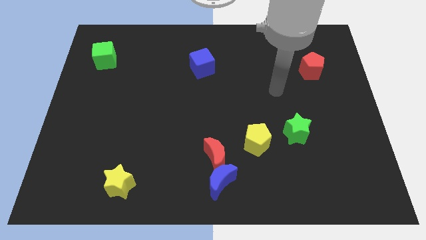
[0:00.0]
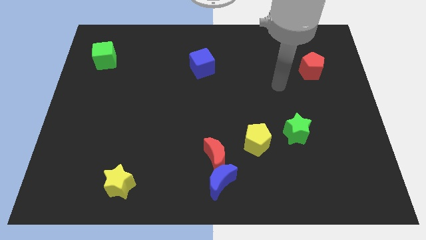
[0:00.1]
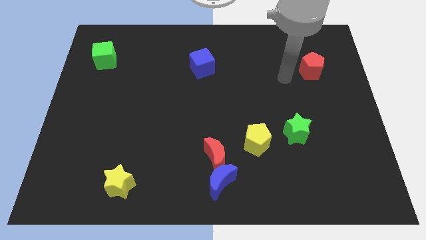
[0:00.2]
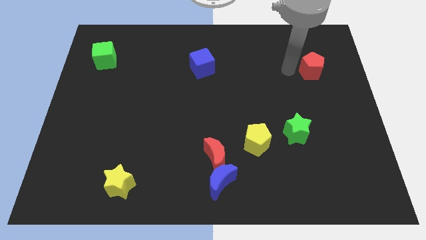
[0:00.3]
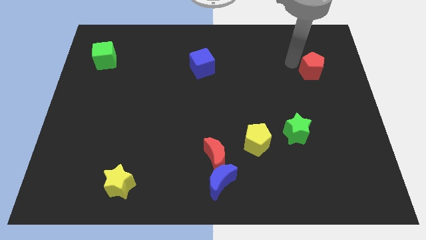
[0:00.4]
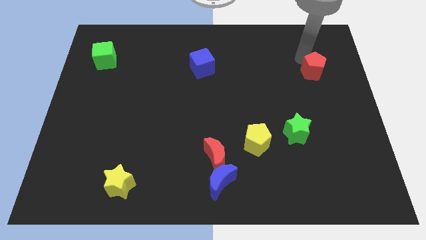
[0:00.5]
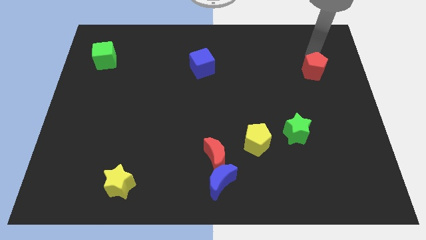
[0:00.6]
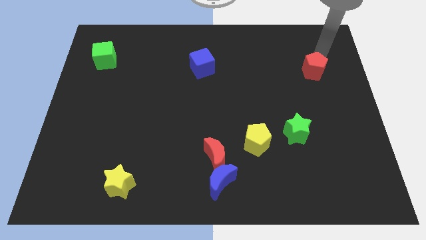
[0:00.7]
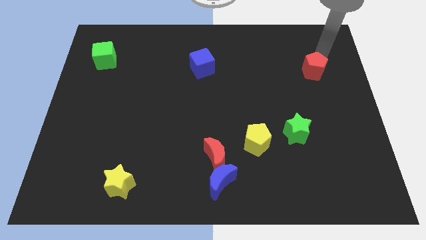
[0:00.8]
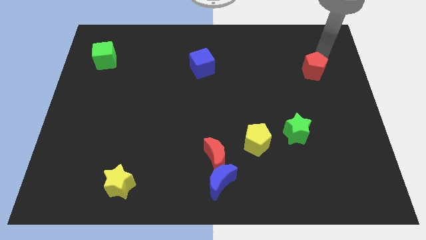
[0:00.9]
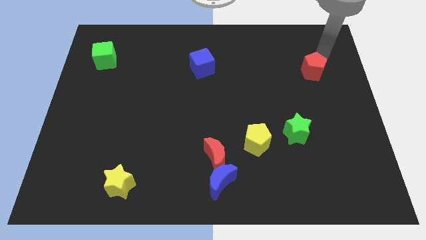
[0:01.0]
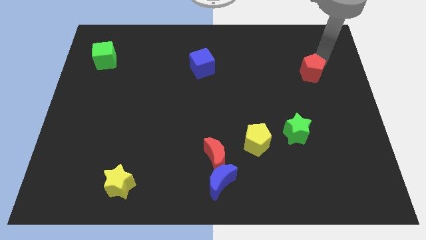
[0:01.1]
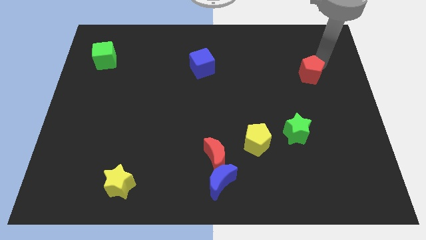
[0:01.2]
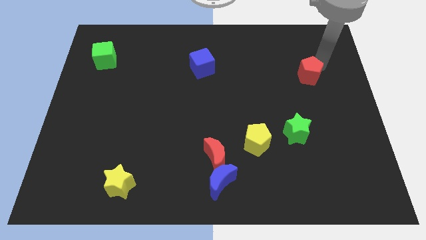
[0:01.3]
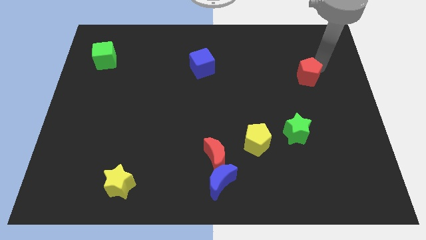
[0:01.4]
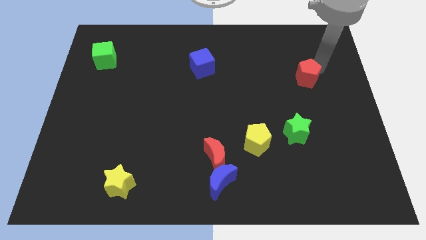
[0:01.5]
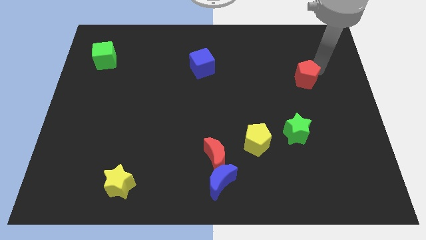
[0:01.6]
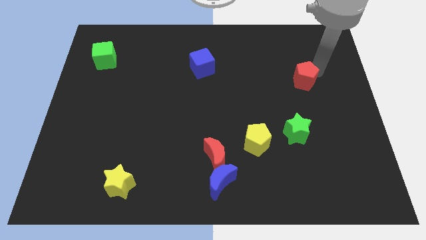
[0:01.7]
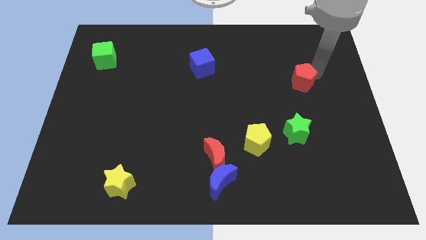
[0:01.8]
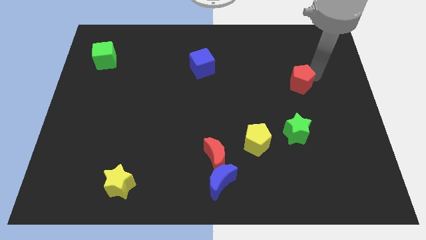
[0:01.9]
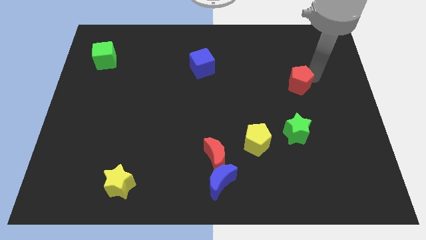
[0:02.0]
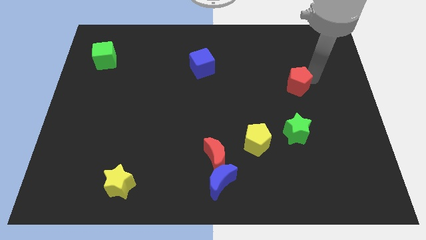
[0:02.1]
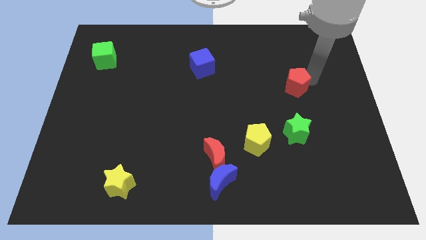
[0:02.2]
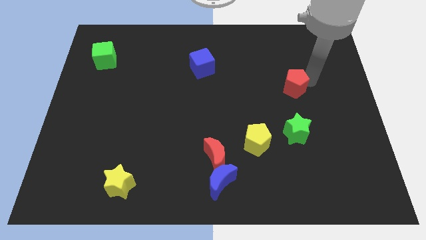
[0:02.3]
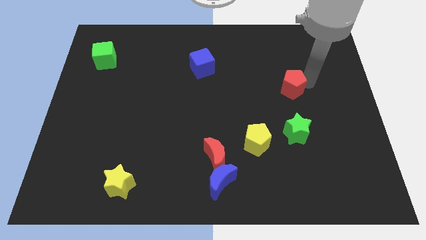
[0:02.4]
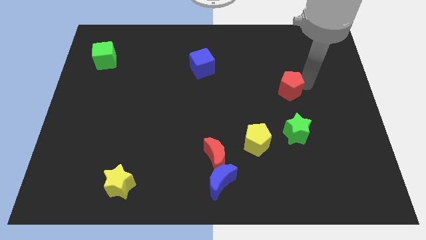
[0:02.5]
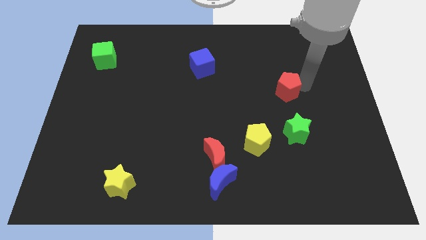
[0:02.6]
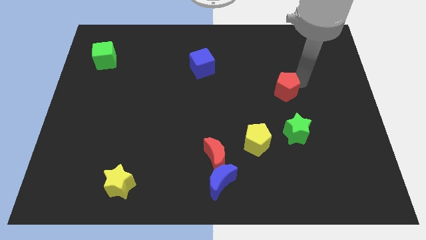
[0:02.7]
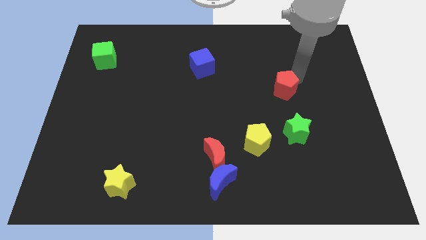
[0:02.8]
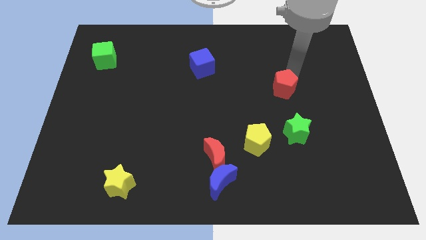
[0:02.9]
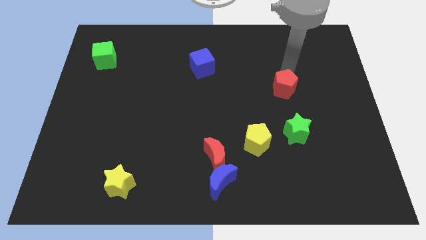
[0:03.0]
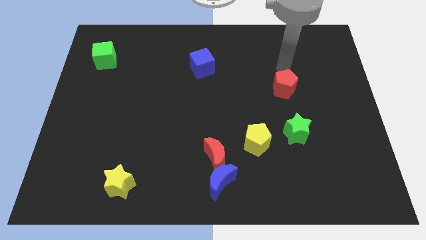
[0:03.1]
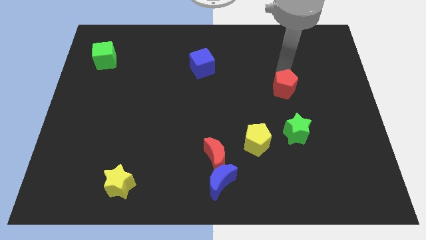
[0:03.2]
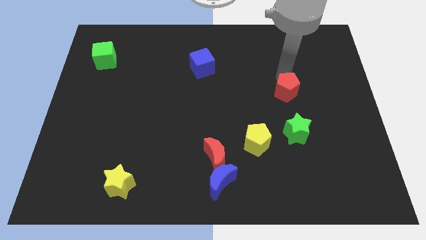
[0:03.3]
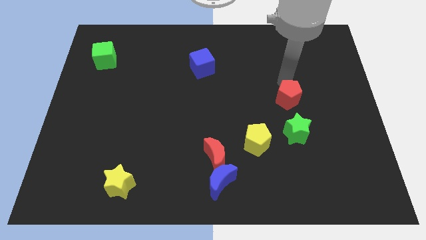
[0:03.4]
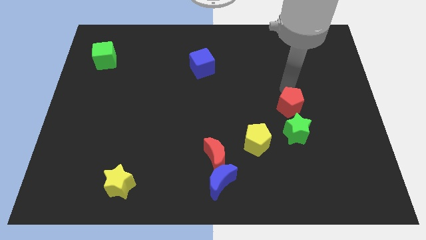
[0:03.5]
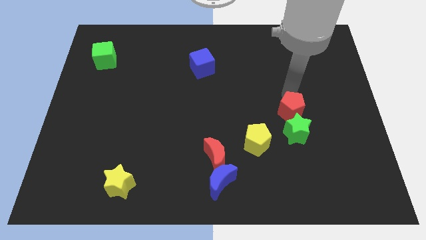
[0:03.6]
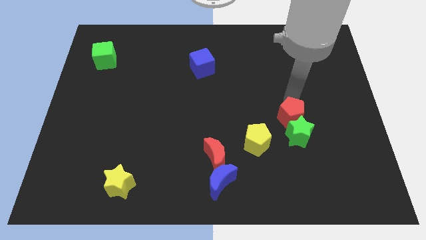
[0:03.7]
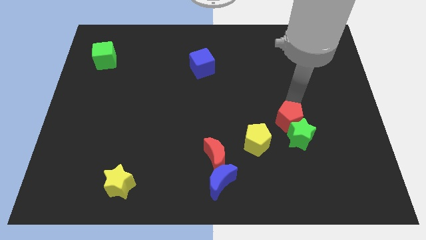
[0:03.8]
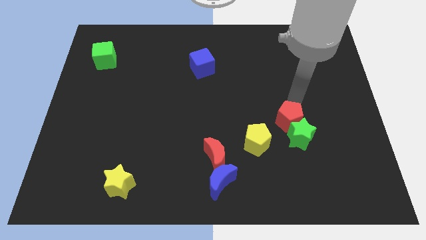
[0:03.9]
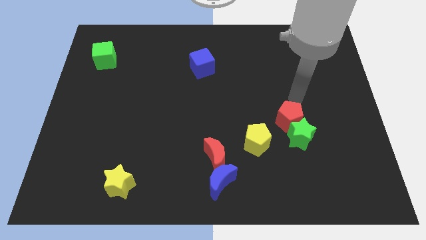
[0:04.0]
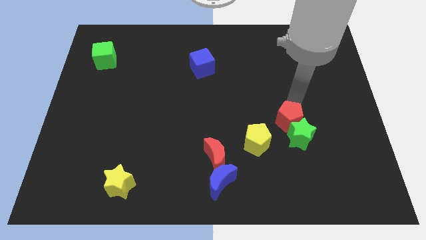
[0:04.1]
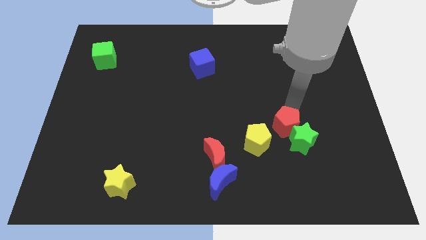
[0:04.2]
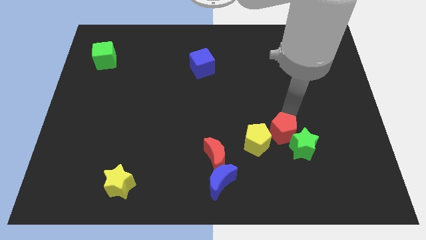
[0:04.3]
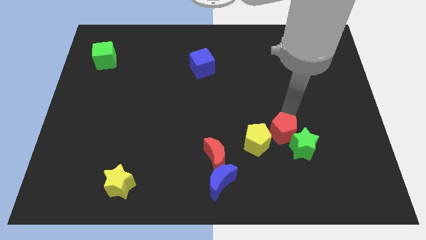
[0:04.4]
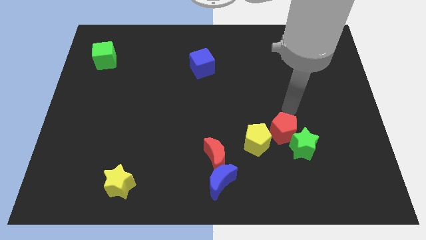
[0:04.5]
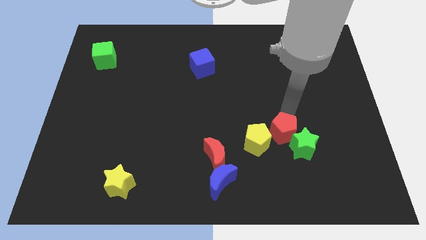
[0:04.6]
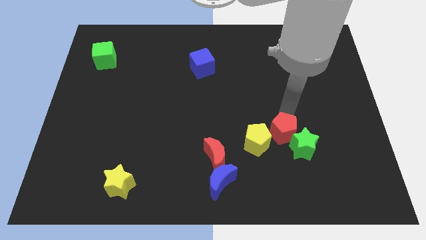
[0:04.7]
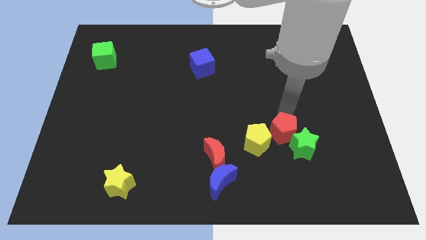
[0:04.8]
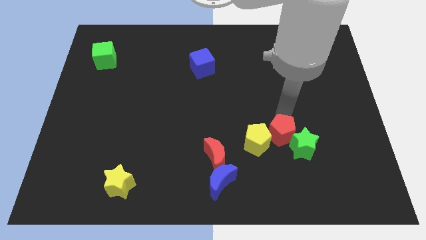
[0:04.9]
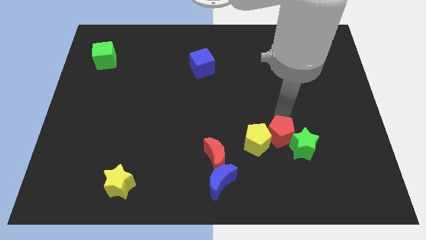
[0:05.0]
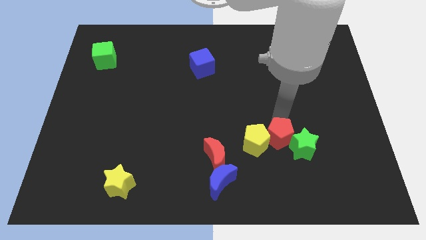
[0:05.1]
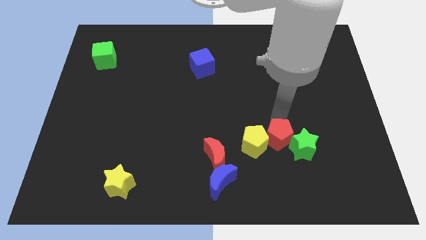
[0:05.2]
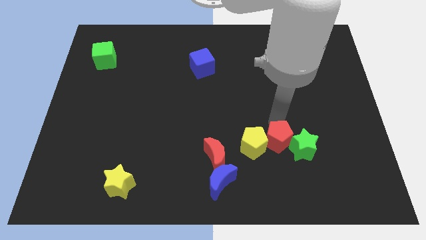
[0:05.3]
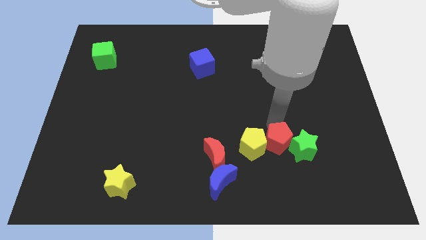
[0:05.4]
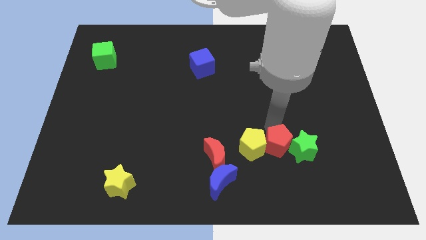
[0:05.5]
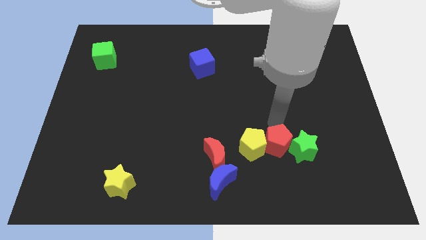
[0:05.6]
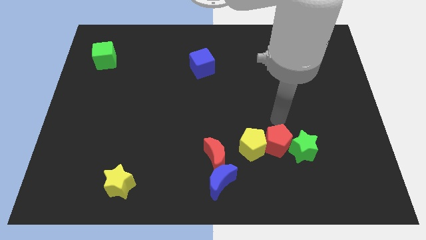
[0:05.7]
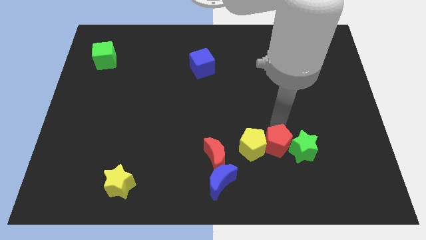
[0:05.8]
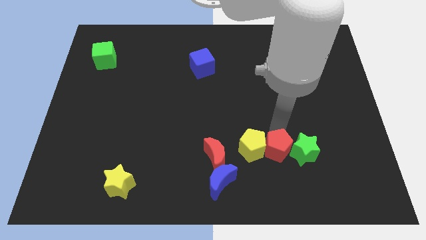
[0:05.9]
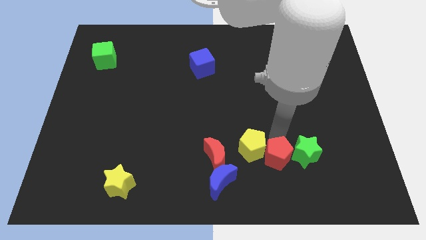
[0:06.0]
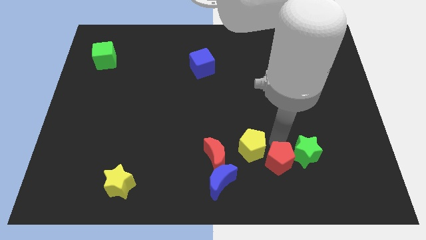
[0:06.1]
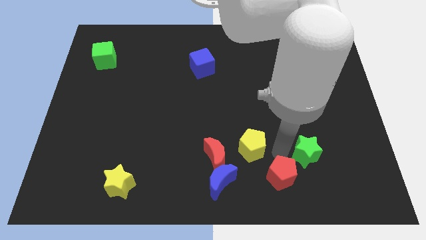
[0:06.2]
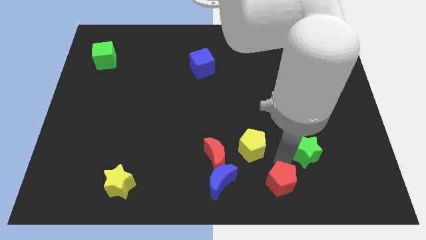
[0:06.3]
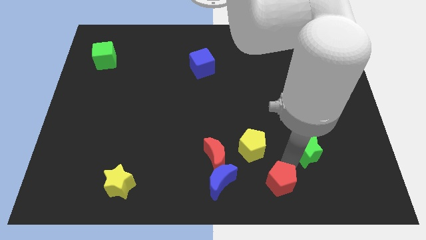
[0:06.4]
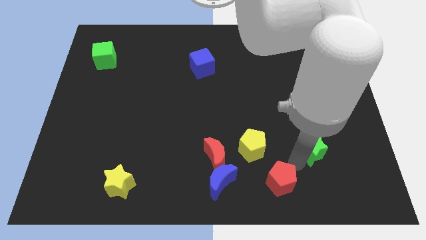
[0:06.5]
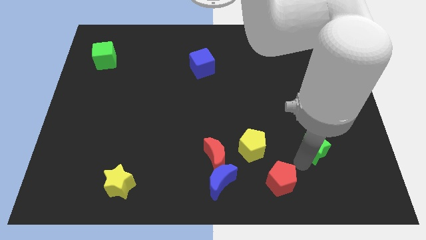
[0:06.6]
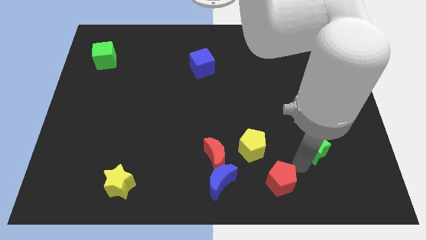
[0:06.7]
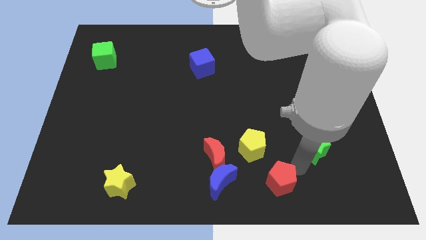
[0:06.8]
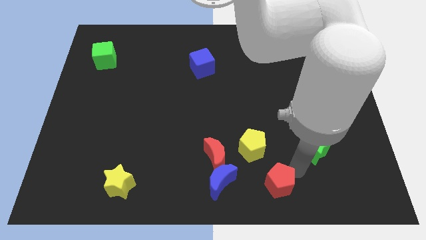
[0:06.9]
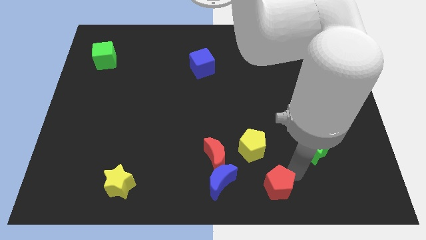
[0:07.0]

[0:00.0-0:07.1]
push the red pentagon to the bottom side
